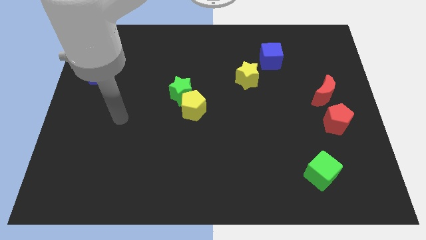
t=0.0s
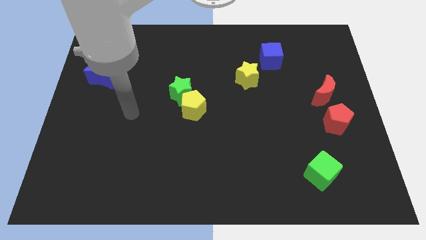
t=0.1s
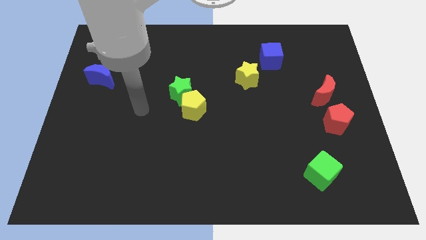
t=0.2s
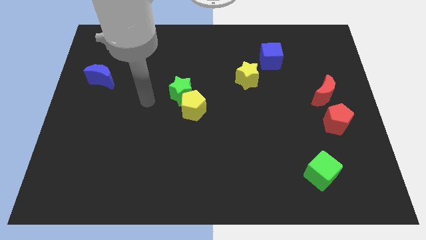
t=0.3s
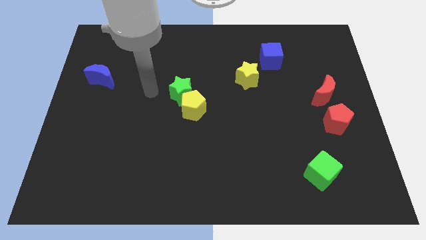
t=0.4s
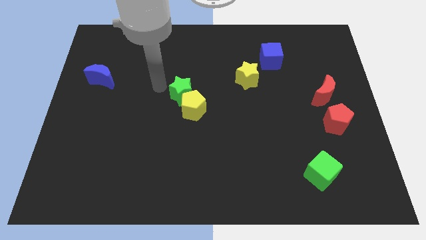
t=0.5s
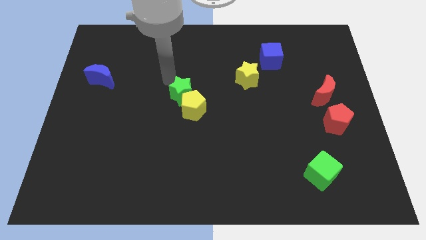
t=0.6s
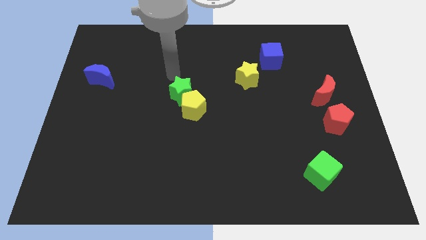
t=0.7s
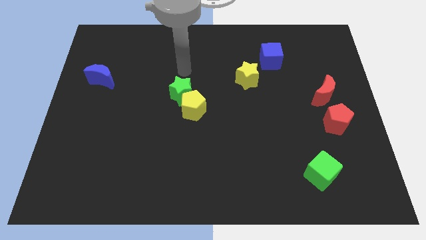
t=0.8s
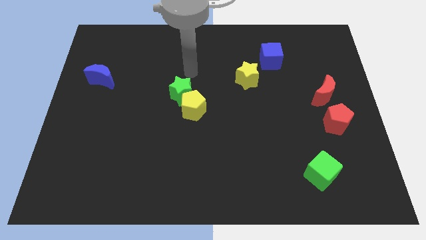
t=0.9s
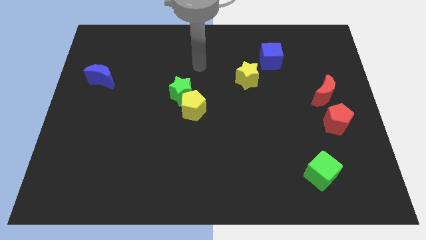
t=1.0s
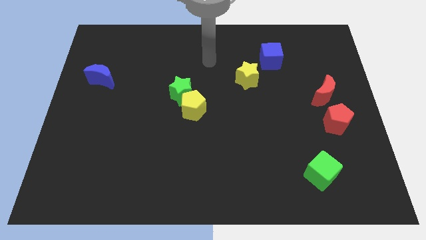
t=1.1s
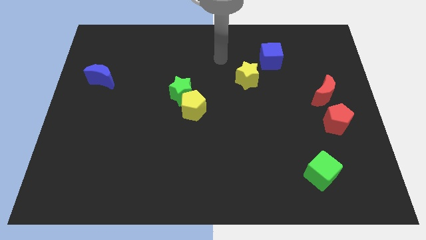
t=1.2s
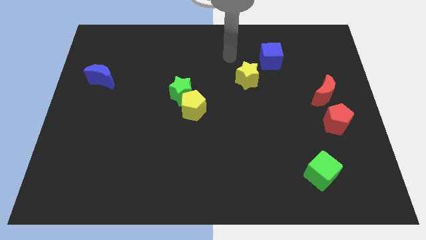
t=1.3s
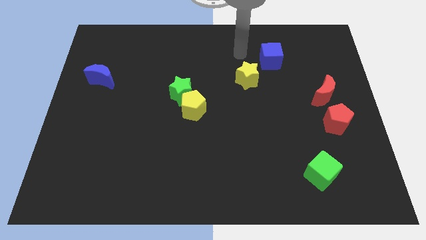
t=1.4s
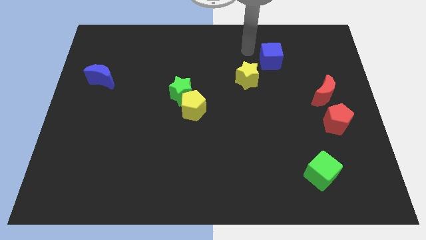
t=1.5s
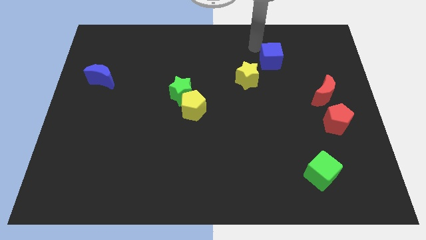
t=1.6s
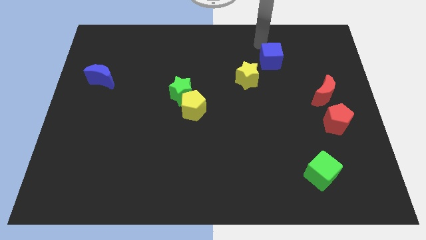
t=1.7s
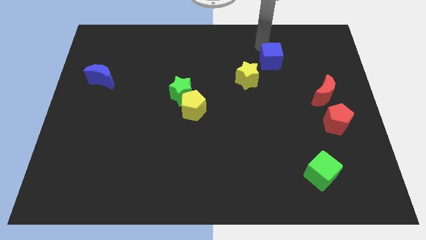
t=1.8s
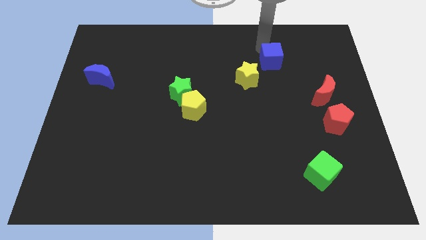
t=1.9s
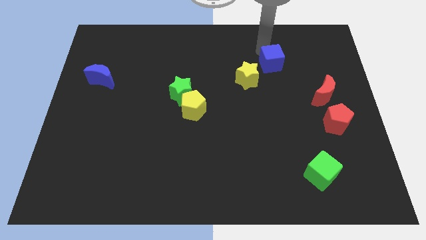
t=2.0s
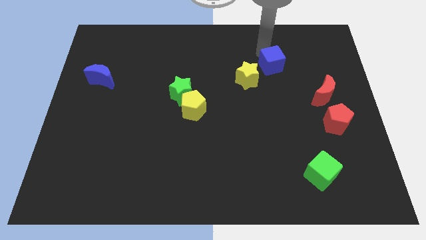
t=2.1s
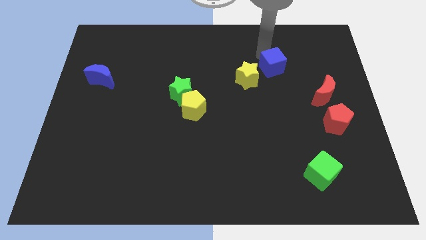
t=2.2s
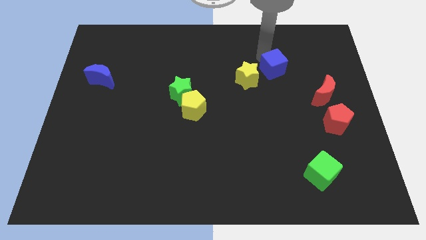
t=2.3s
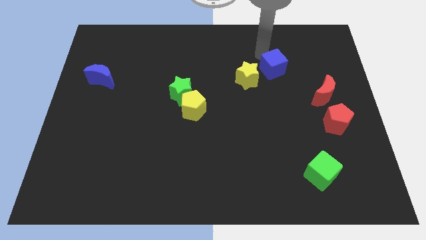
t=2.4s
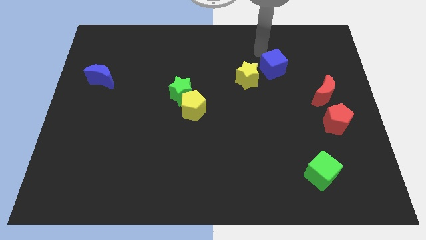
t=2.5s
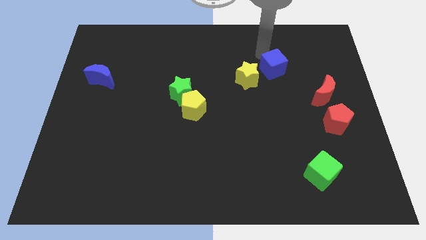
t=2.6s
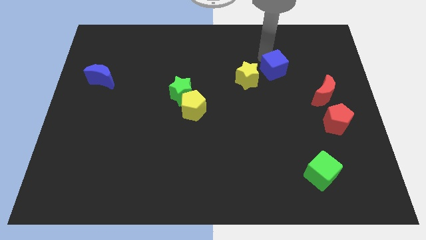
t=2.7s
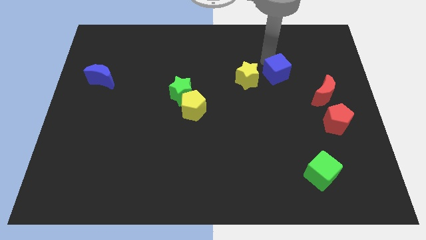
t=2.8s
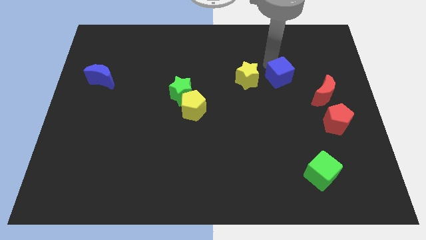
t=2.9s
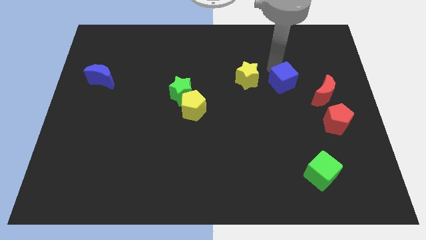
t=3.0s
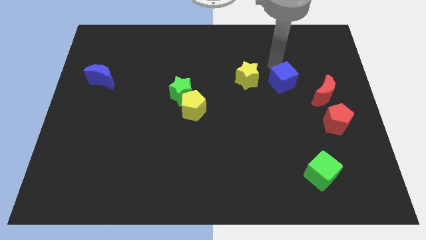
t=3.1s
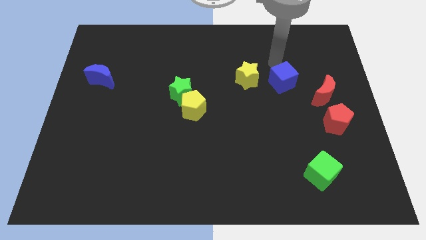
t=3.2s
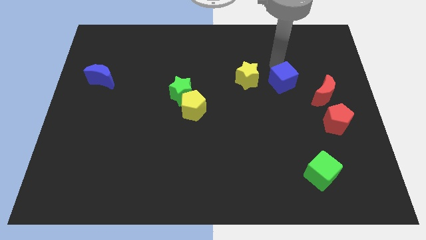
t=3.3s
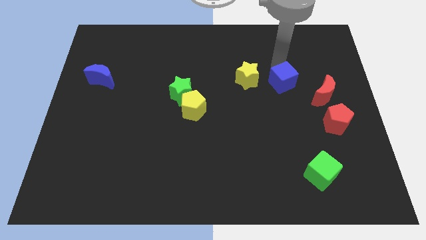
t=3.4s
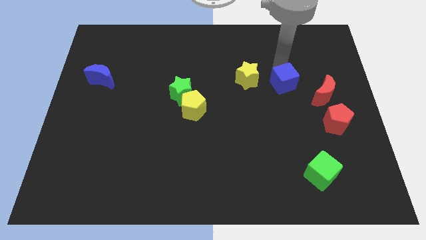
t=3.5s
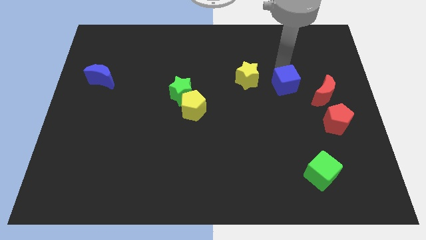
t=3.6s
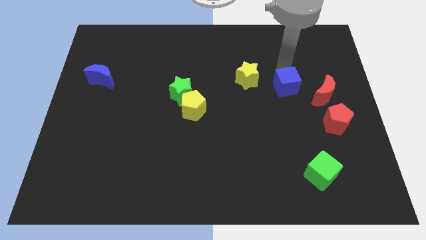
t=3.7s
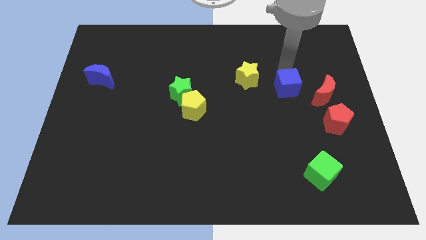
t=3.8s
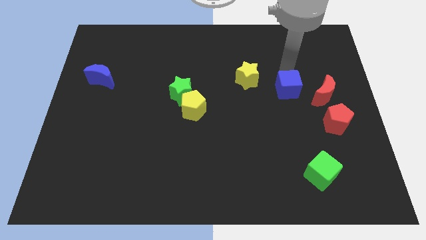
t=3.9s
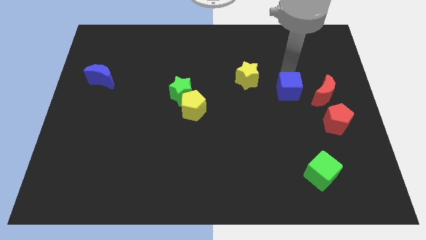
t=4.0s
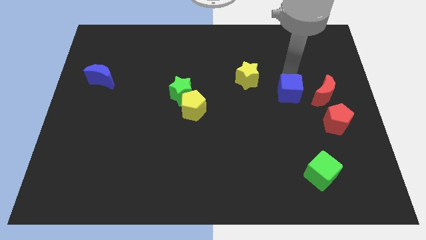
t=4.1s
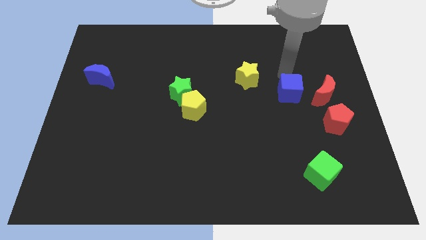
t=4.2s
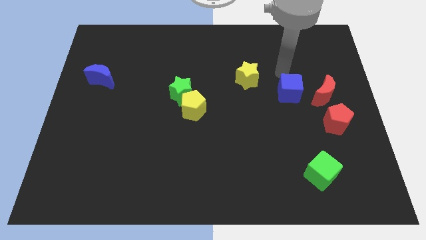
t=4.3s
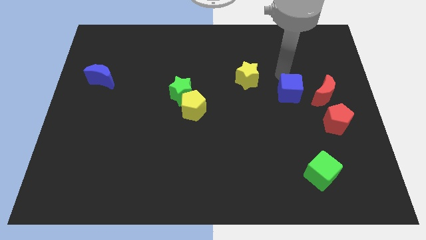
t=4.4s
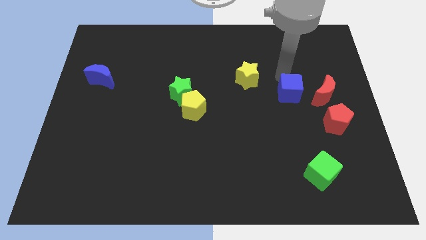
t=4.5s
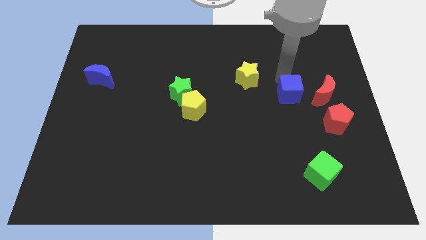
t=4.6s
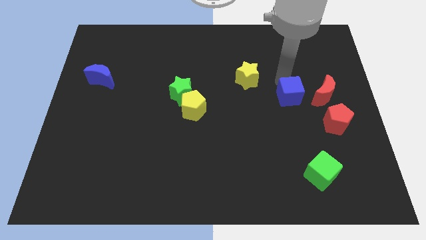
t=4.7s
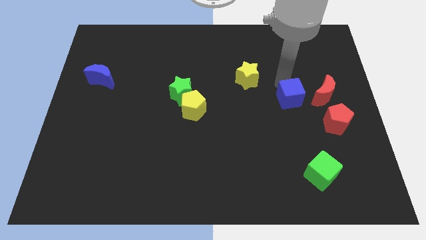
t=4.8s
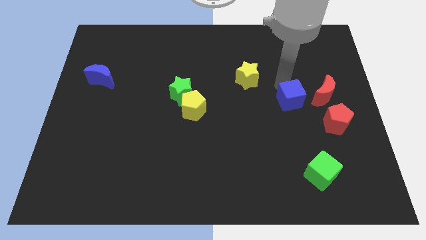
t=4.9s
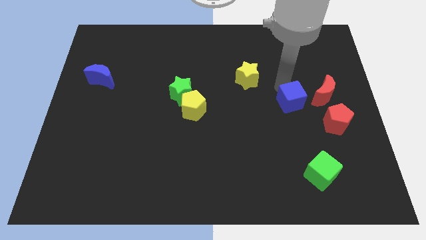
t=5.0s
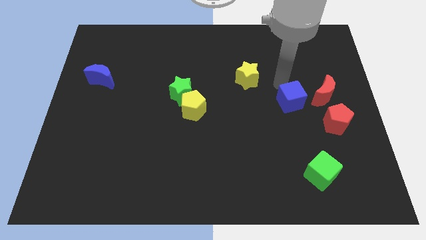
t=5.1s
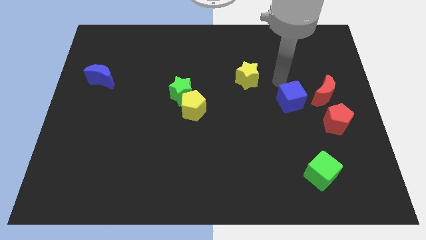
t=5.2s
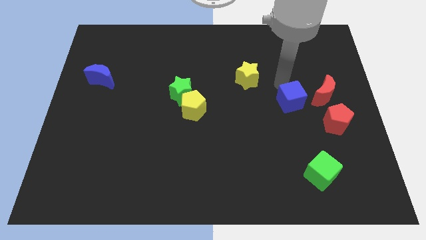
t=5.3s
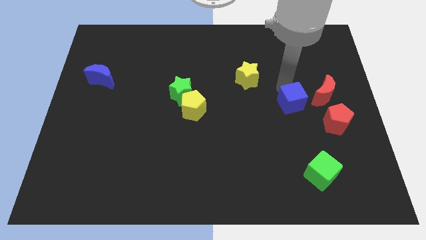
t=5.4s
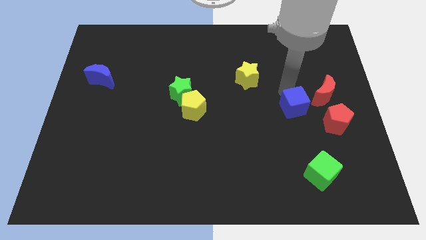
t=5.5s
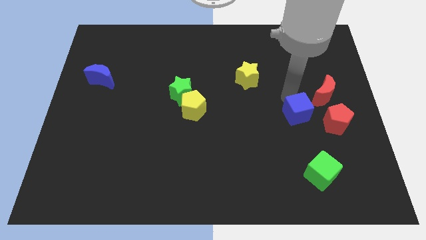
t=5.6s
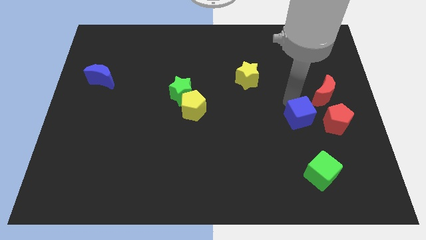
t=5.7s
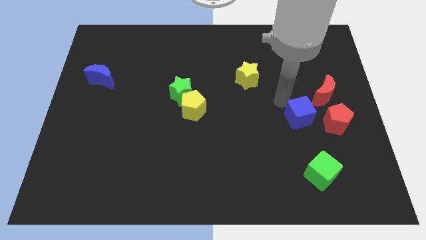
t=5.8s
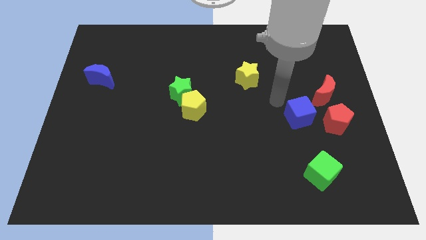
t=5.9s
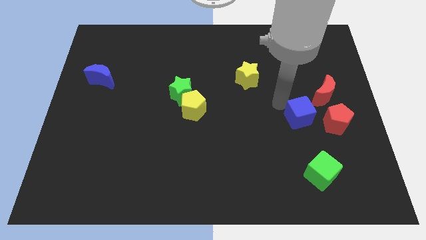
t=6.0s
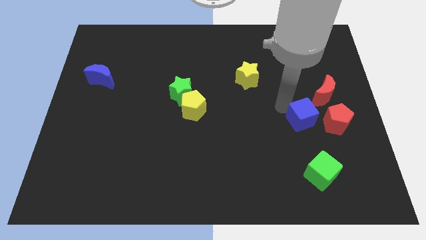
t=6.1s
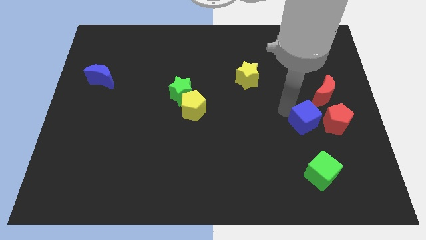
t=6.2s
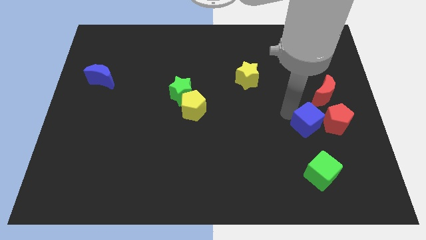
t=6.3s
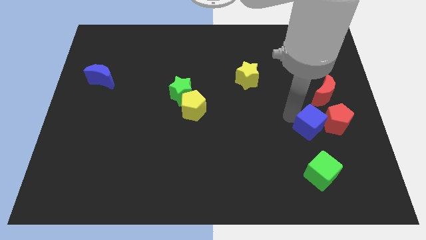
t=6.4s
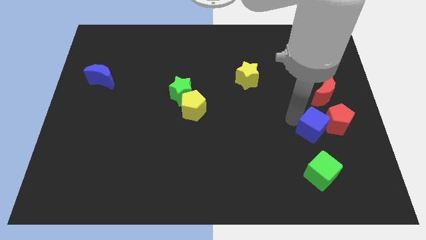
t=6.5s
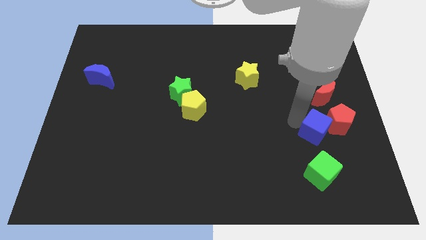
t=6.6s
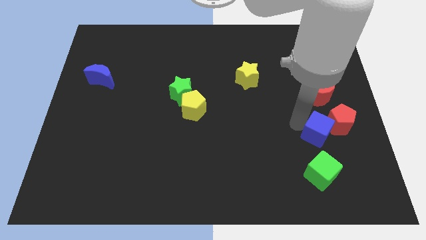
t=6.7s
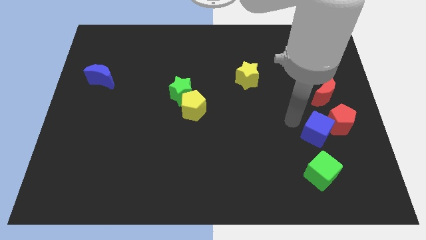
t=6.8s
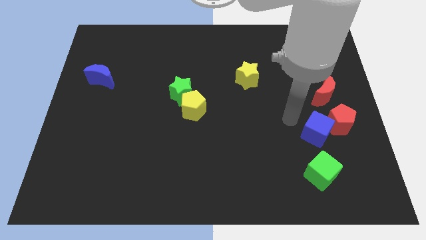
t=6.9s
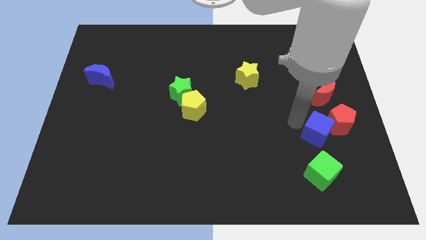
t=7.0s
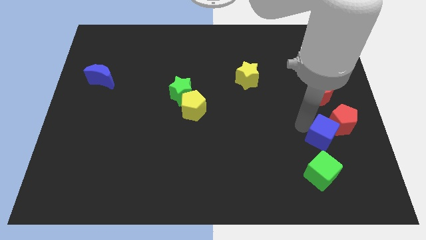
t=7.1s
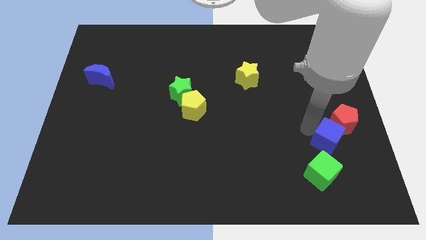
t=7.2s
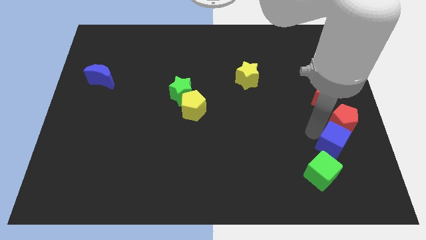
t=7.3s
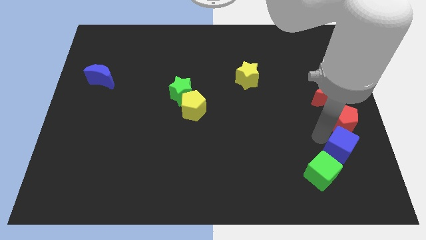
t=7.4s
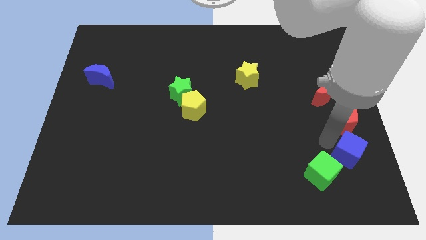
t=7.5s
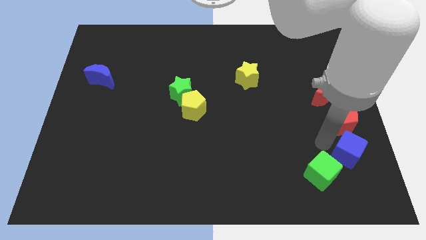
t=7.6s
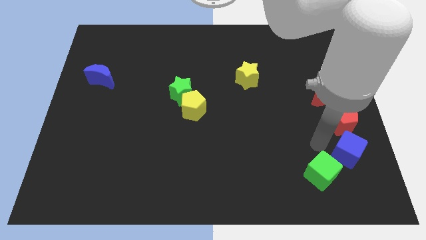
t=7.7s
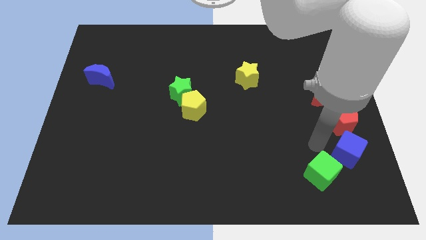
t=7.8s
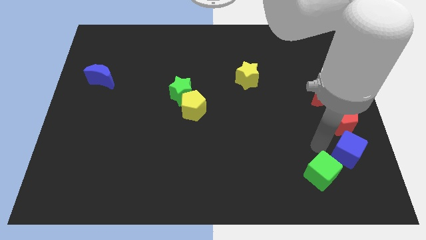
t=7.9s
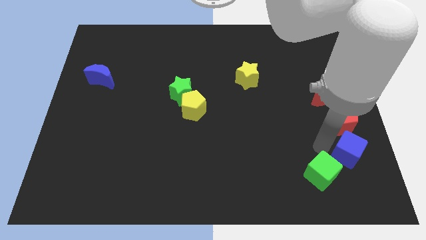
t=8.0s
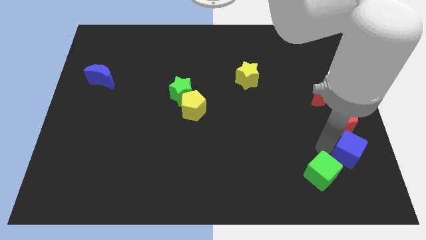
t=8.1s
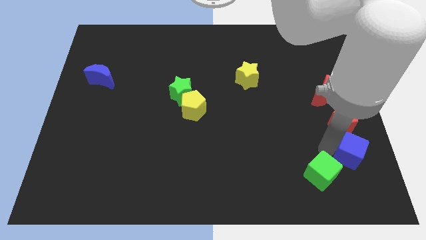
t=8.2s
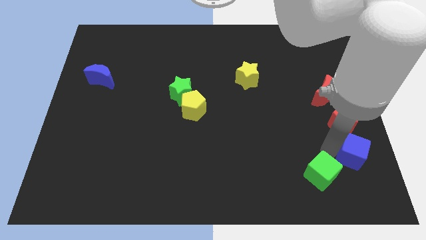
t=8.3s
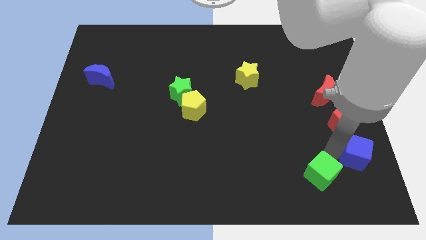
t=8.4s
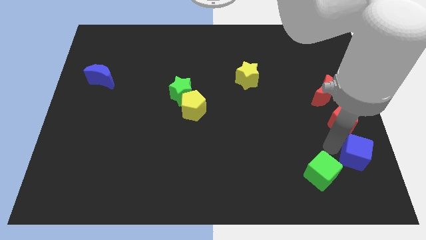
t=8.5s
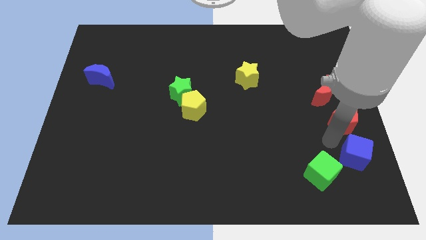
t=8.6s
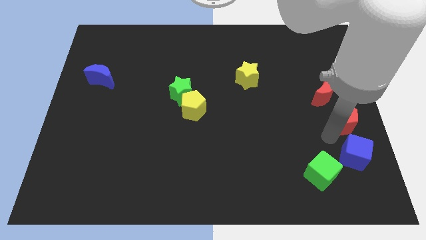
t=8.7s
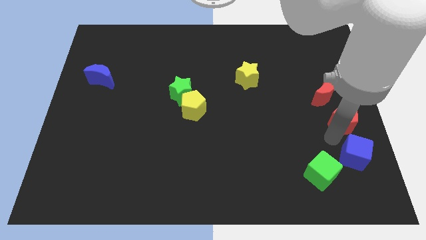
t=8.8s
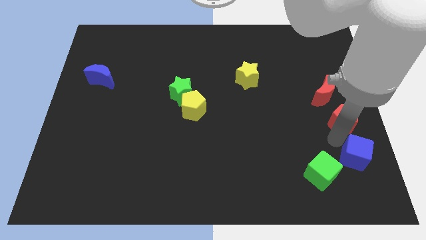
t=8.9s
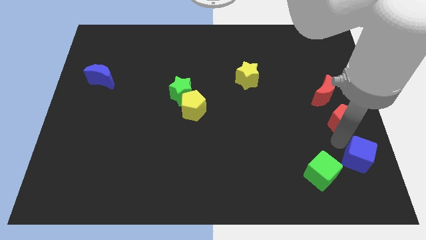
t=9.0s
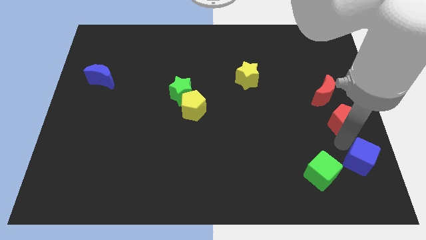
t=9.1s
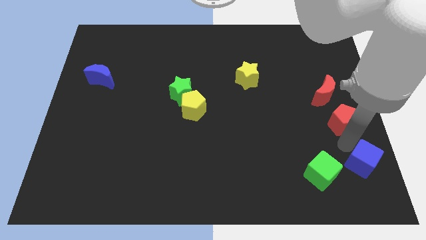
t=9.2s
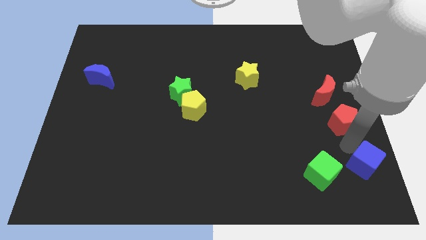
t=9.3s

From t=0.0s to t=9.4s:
move the blue cube to the bottom right corner
